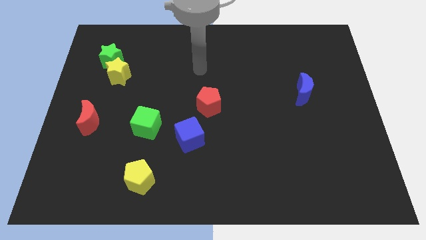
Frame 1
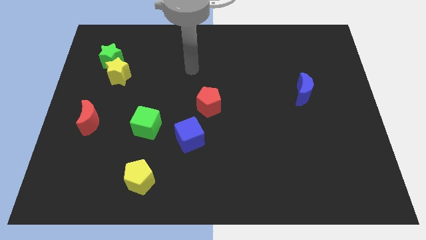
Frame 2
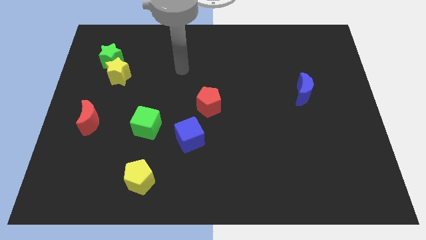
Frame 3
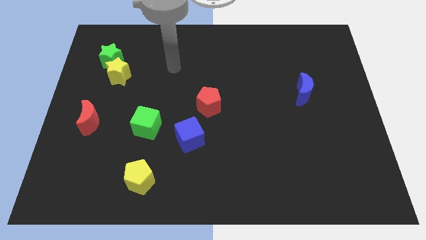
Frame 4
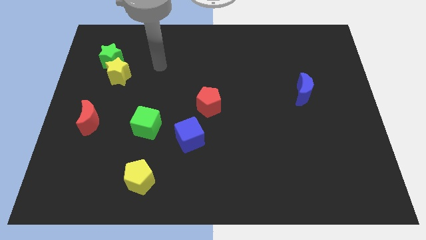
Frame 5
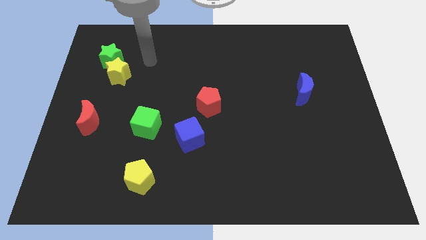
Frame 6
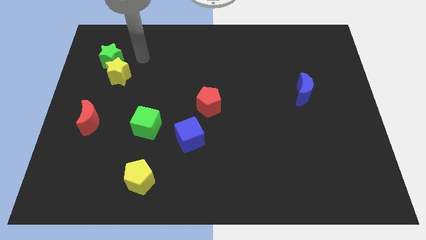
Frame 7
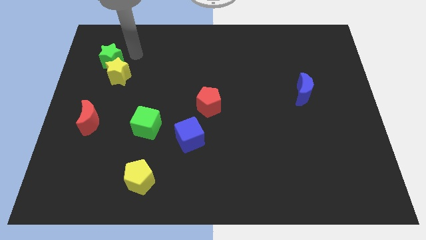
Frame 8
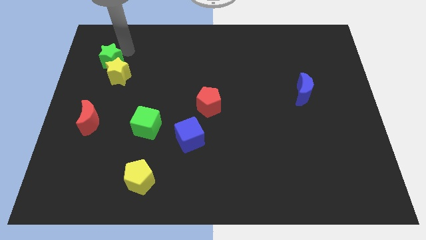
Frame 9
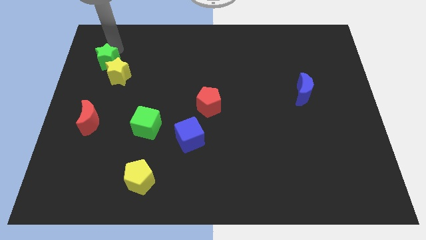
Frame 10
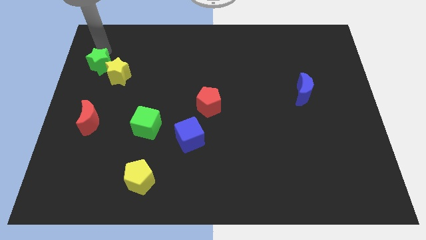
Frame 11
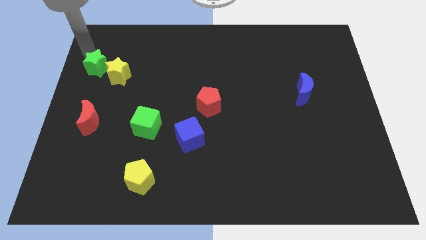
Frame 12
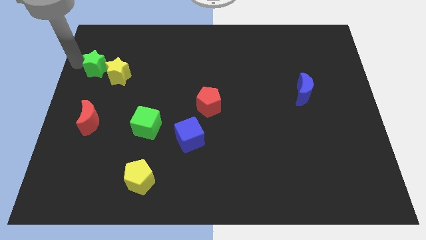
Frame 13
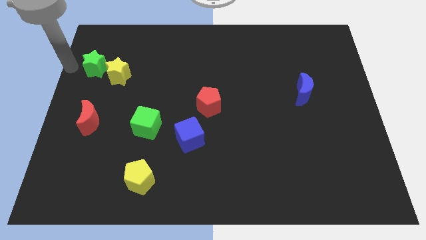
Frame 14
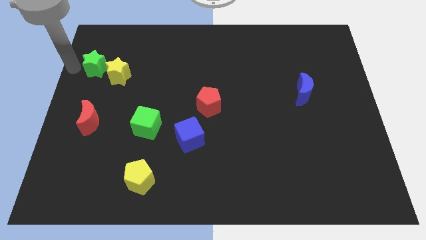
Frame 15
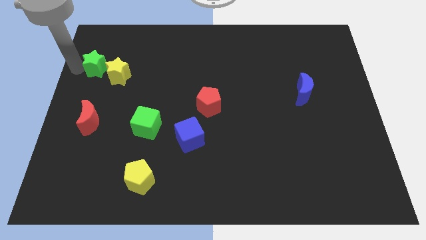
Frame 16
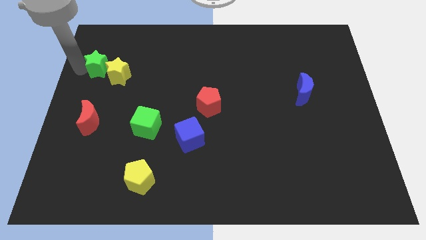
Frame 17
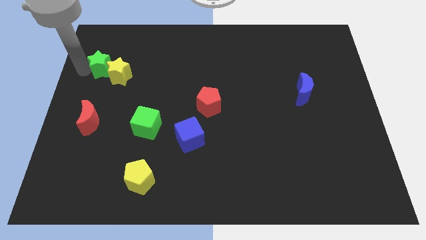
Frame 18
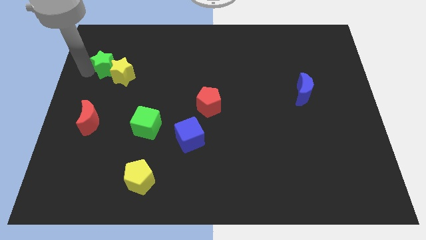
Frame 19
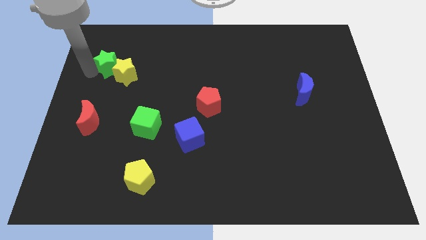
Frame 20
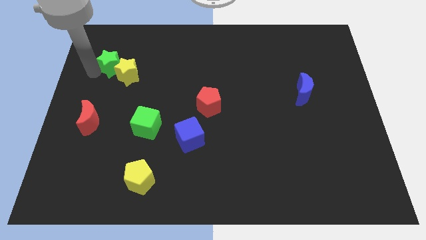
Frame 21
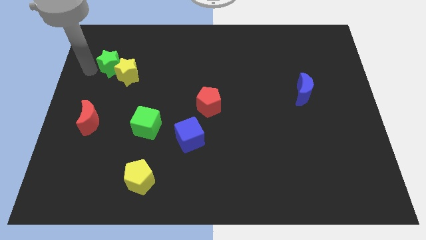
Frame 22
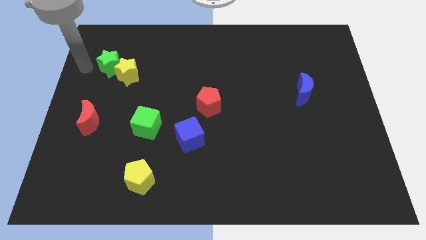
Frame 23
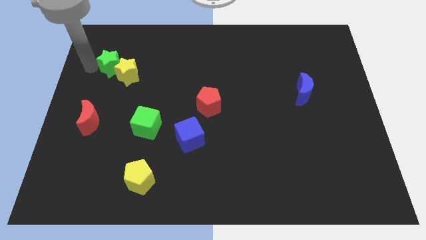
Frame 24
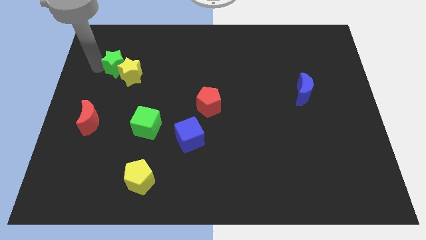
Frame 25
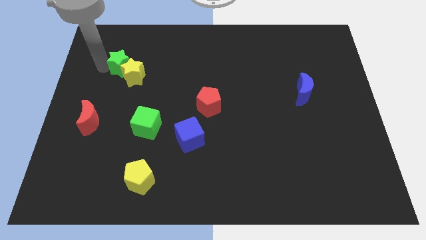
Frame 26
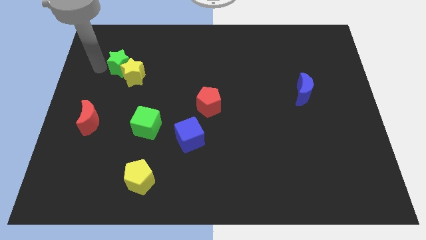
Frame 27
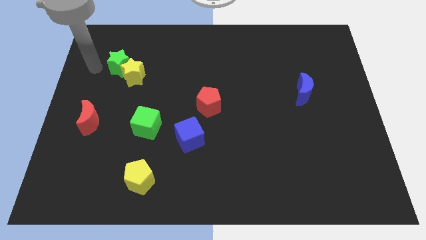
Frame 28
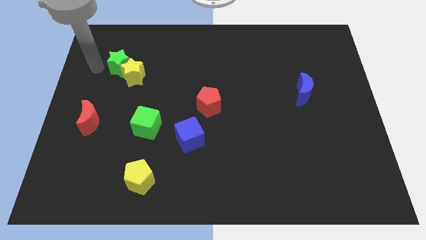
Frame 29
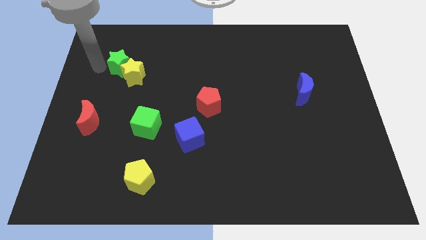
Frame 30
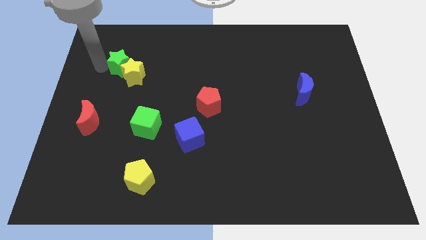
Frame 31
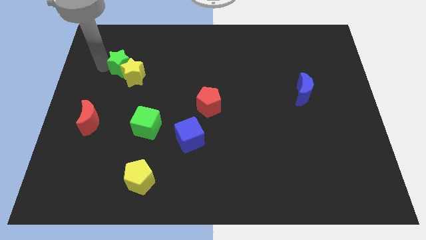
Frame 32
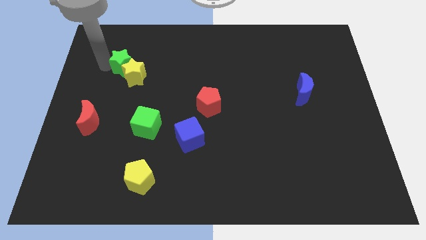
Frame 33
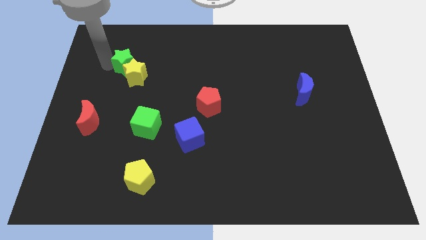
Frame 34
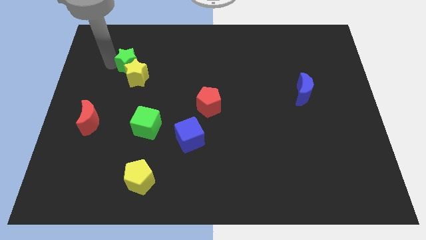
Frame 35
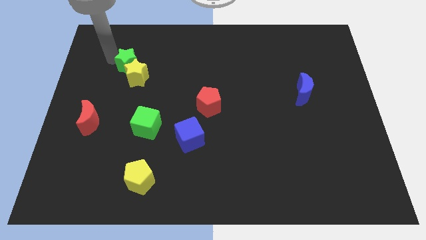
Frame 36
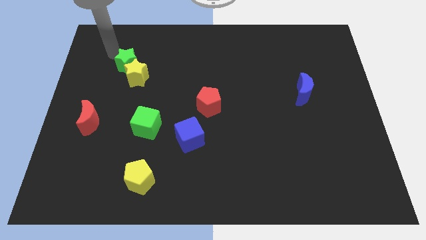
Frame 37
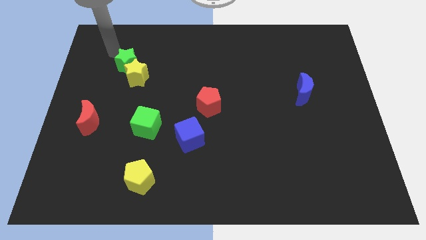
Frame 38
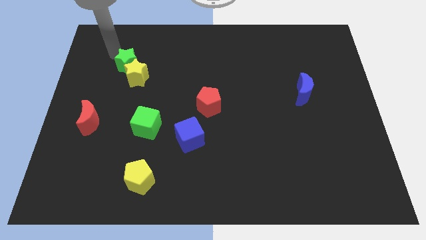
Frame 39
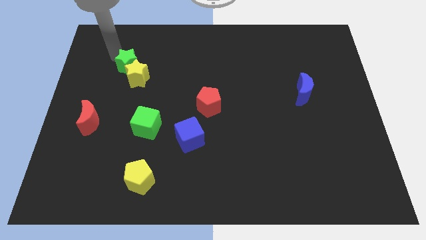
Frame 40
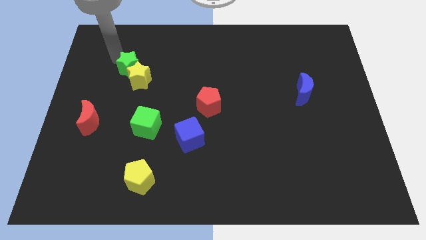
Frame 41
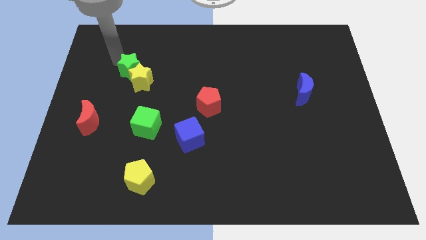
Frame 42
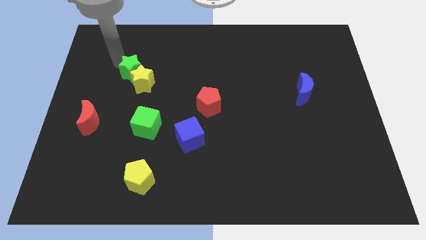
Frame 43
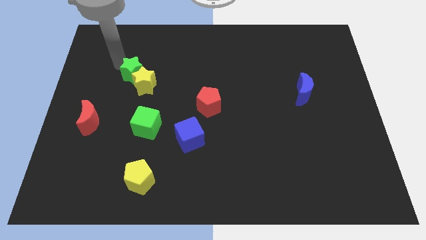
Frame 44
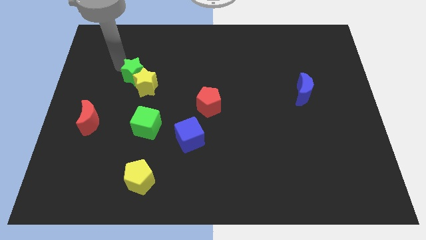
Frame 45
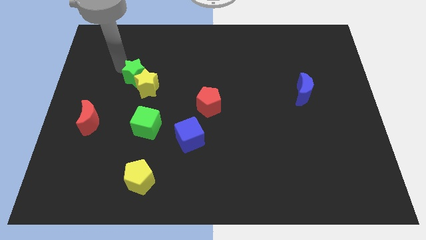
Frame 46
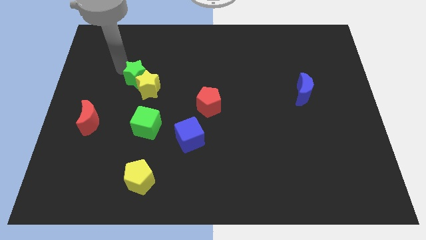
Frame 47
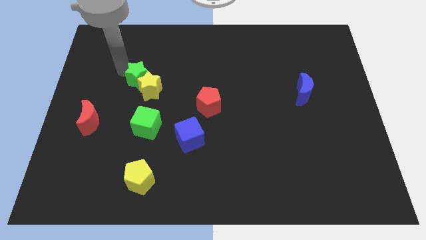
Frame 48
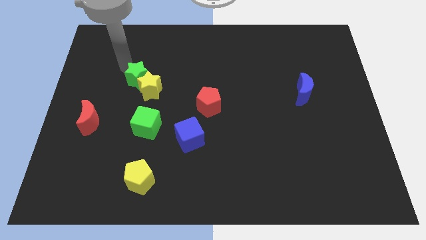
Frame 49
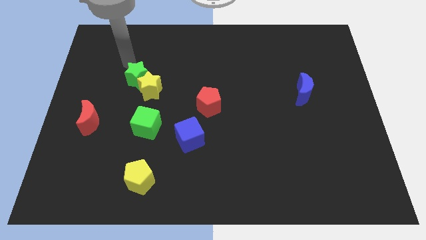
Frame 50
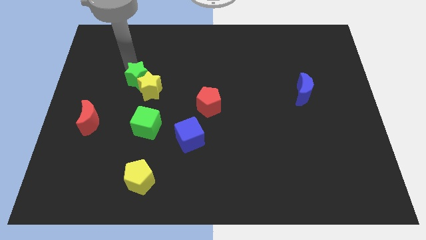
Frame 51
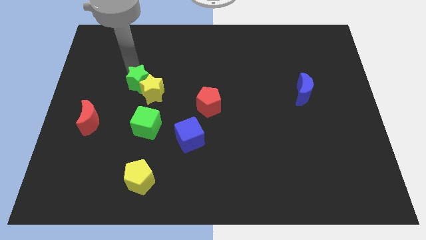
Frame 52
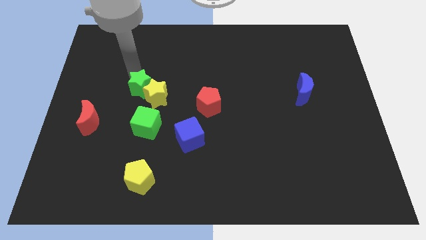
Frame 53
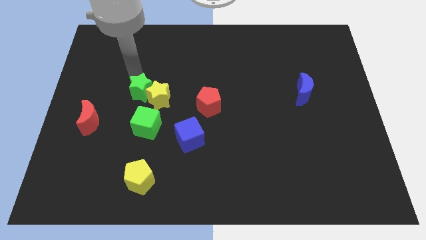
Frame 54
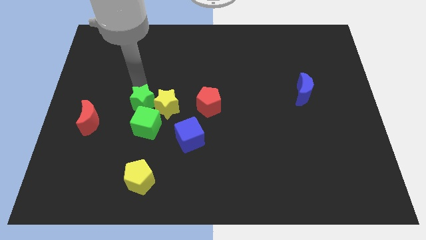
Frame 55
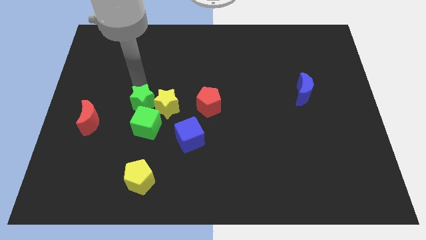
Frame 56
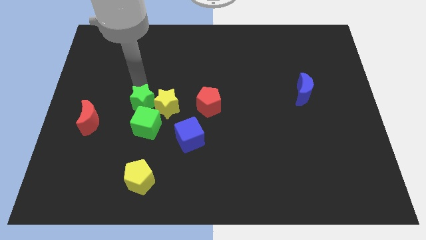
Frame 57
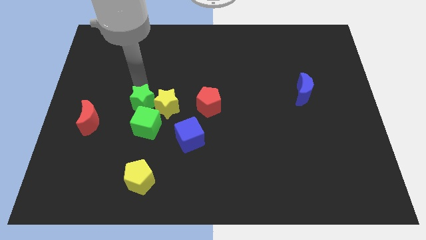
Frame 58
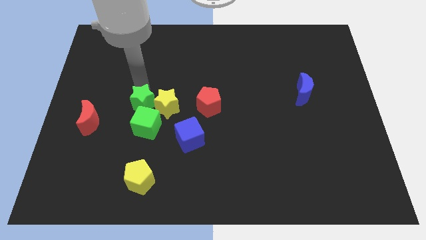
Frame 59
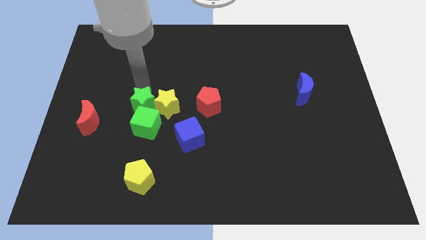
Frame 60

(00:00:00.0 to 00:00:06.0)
slide the green star towards the green cube

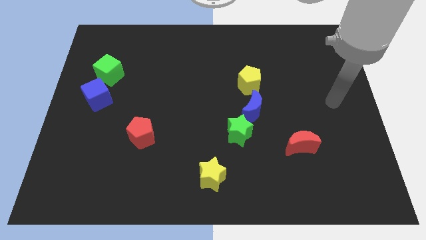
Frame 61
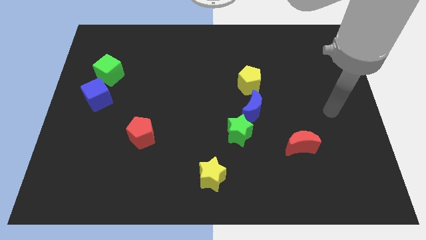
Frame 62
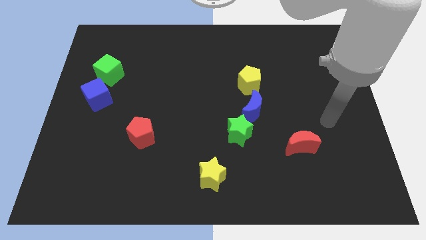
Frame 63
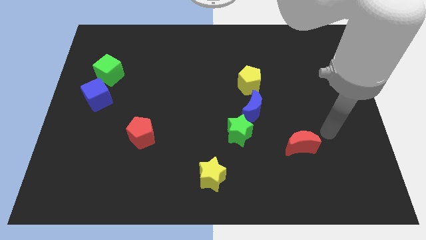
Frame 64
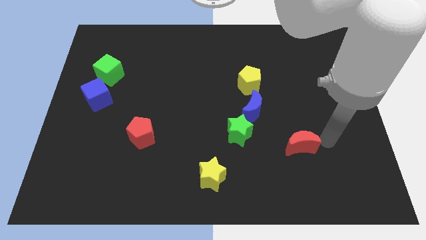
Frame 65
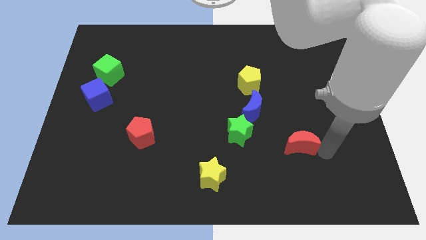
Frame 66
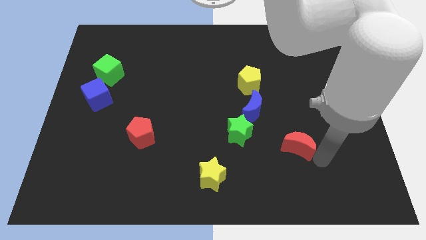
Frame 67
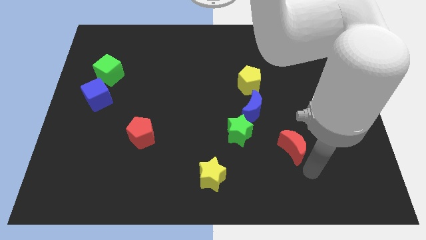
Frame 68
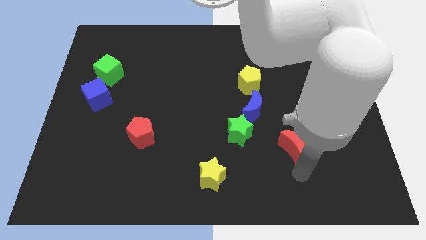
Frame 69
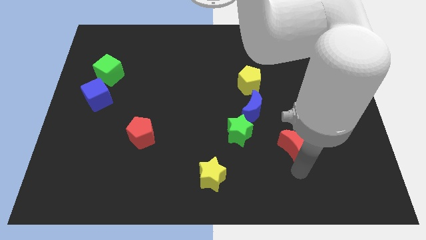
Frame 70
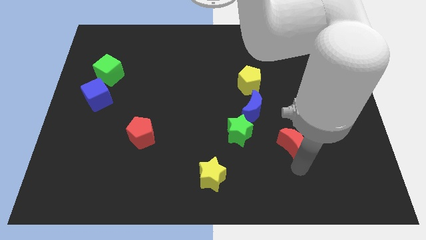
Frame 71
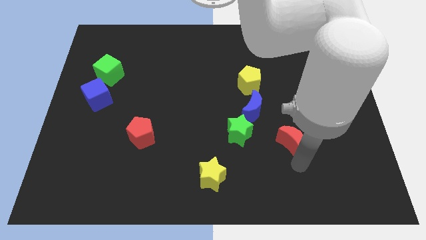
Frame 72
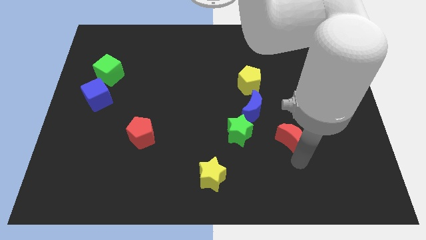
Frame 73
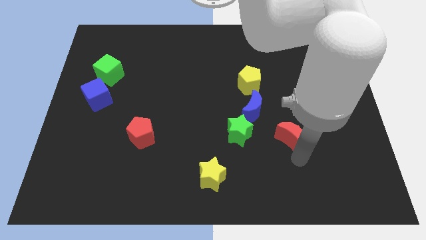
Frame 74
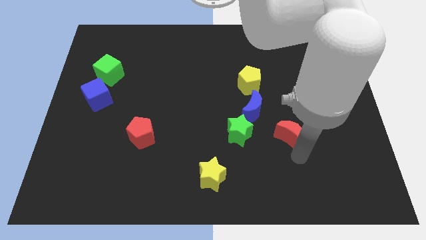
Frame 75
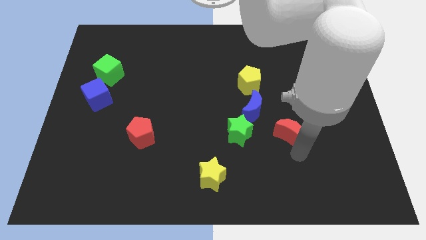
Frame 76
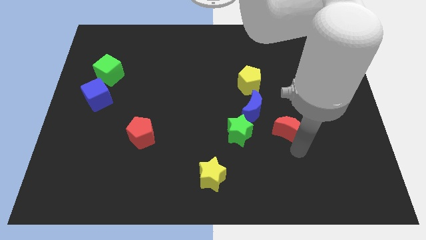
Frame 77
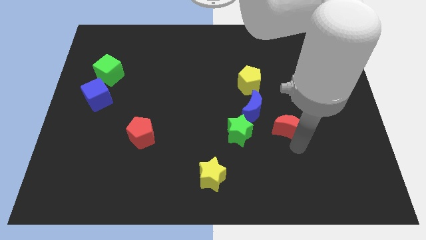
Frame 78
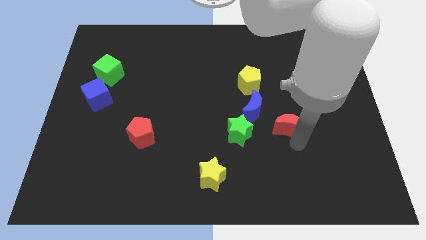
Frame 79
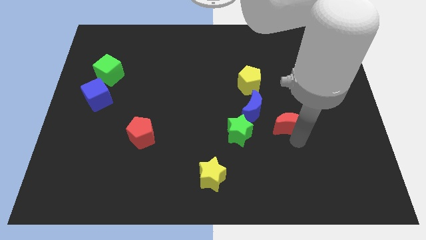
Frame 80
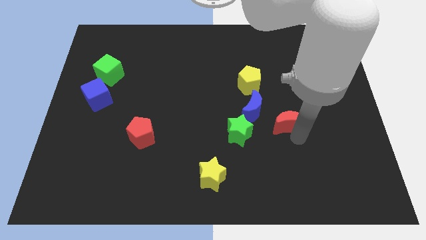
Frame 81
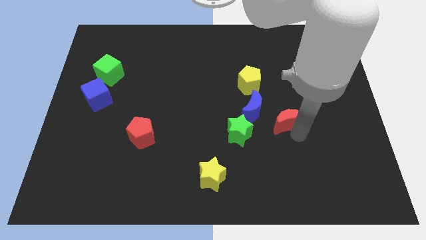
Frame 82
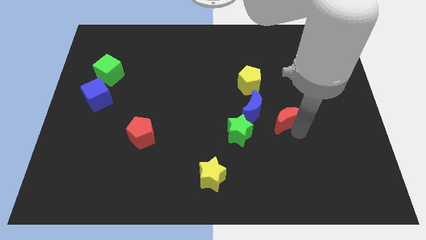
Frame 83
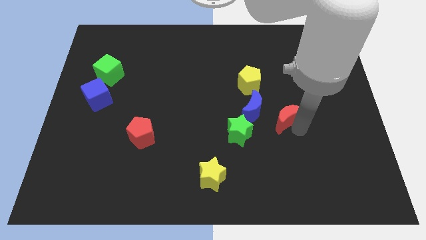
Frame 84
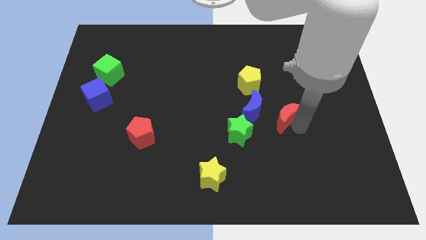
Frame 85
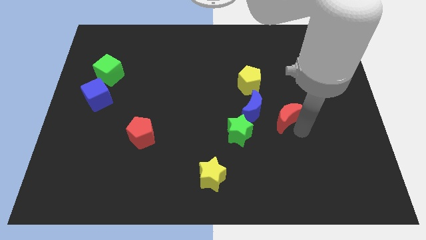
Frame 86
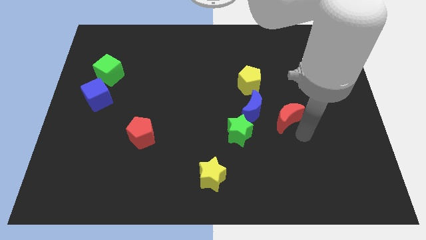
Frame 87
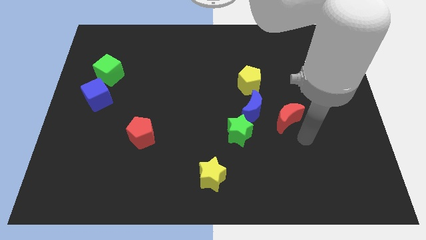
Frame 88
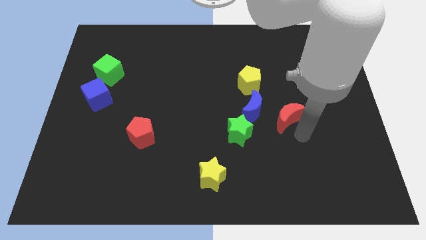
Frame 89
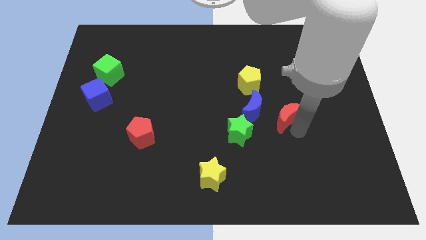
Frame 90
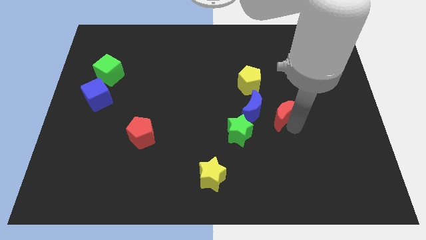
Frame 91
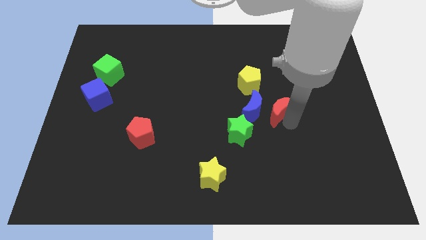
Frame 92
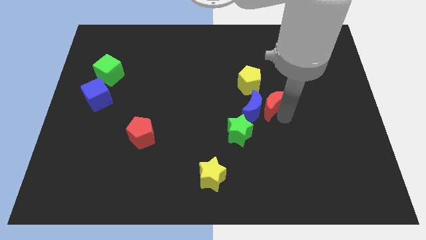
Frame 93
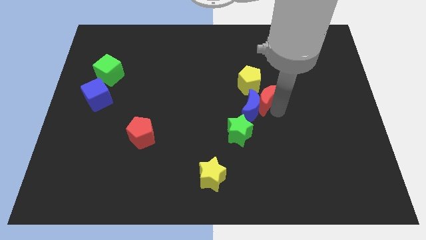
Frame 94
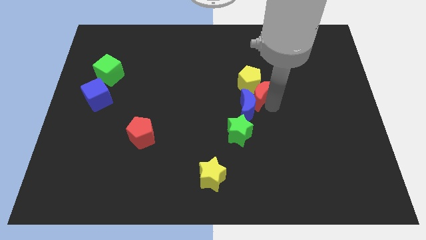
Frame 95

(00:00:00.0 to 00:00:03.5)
put the red moon towards the yellow pentagon
